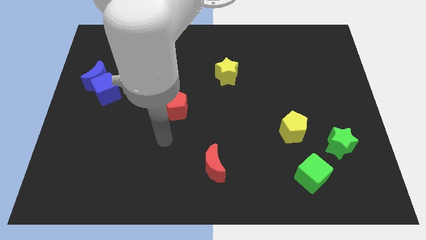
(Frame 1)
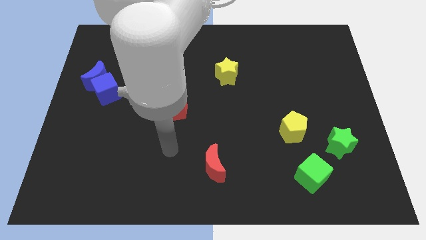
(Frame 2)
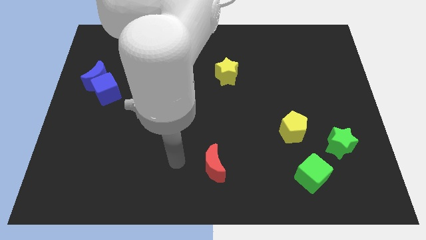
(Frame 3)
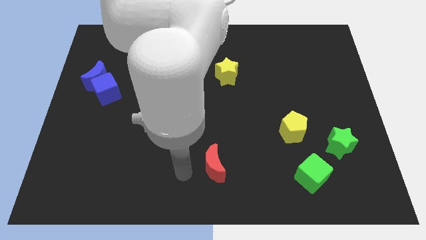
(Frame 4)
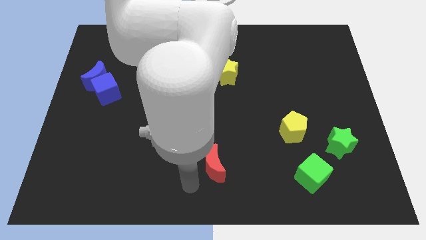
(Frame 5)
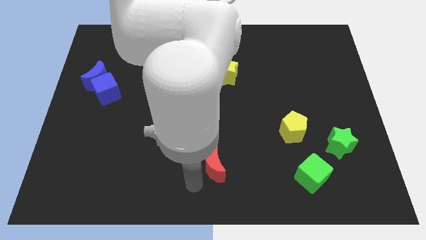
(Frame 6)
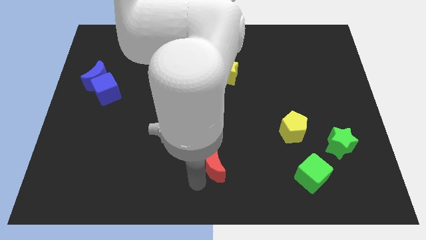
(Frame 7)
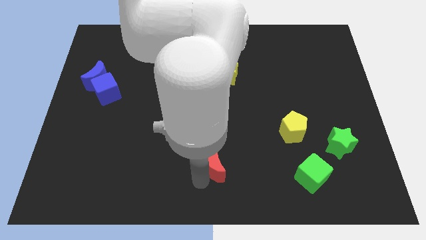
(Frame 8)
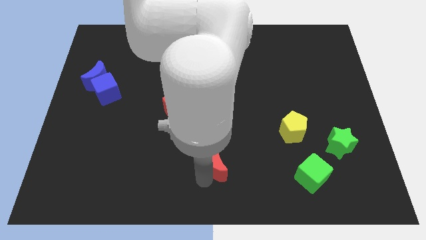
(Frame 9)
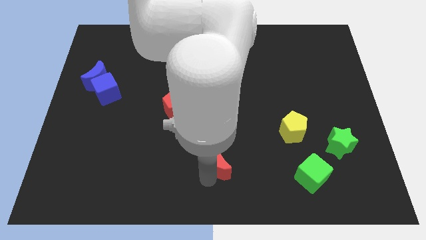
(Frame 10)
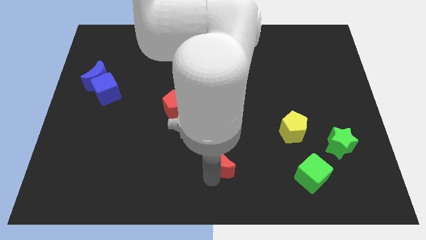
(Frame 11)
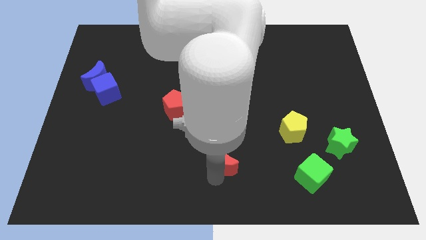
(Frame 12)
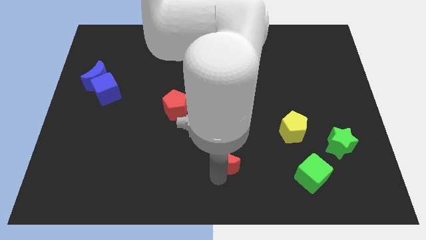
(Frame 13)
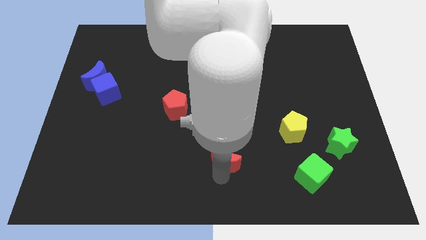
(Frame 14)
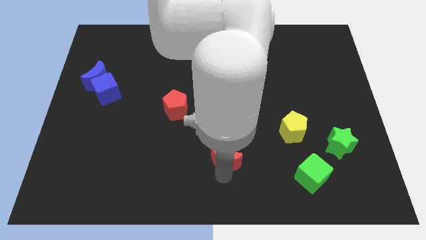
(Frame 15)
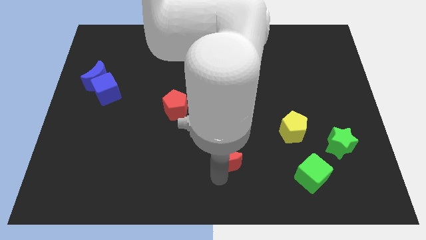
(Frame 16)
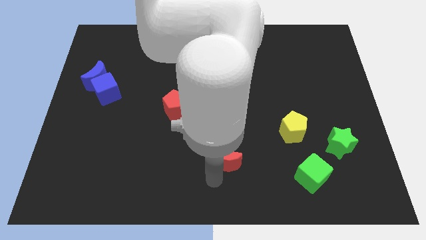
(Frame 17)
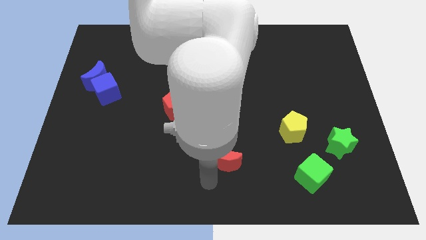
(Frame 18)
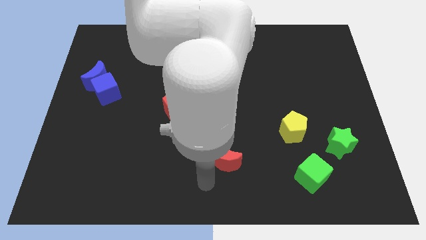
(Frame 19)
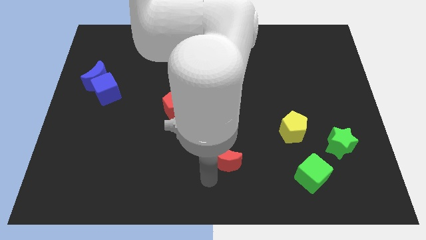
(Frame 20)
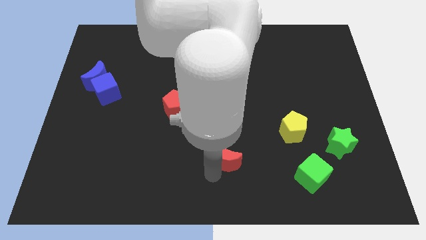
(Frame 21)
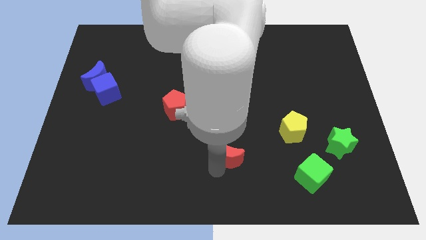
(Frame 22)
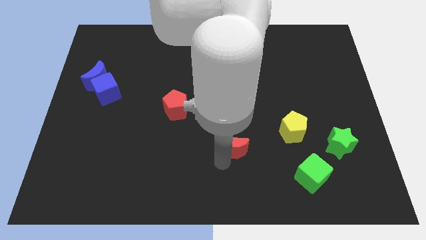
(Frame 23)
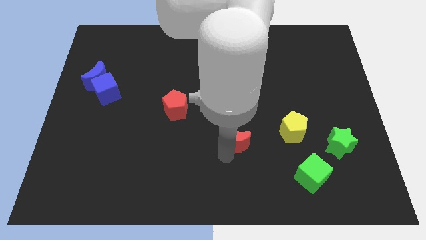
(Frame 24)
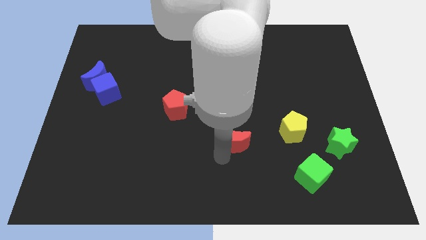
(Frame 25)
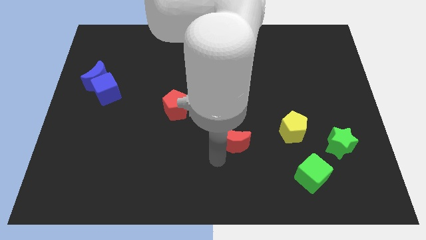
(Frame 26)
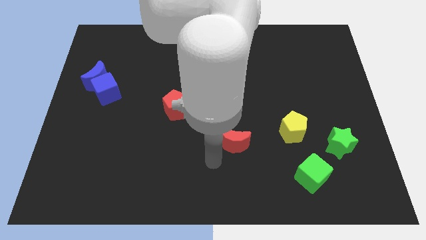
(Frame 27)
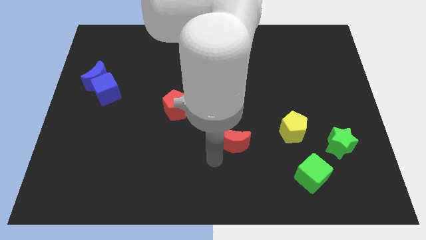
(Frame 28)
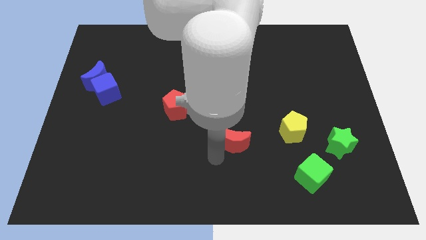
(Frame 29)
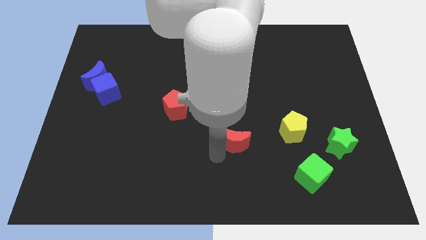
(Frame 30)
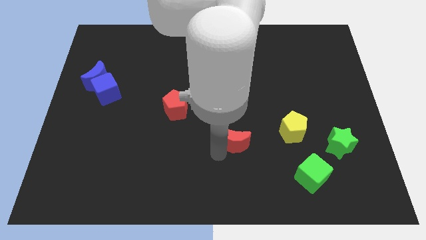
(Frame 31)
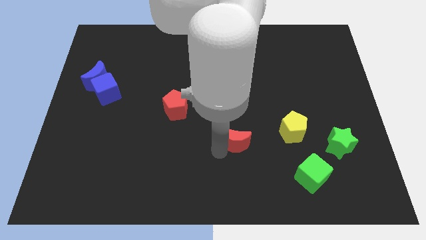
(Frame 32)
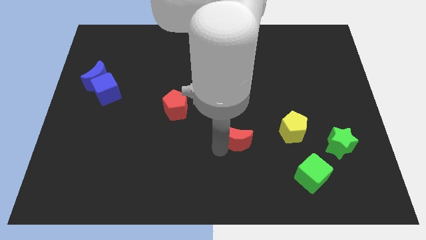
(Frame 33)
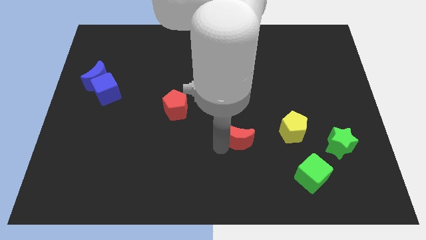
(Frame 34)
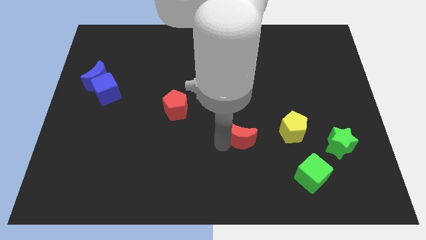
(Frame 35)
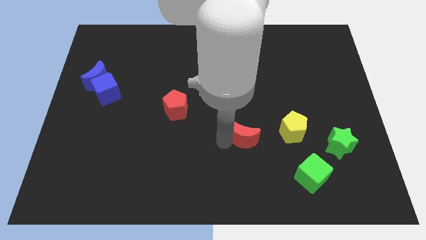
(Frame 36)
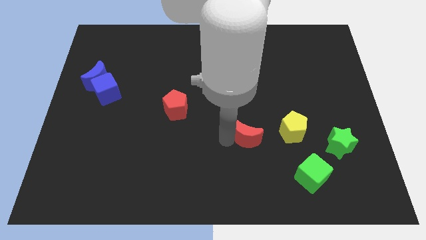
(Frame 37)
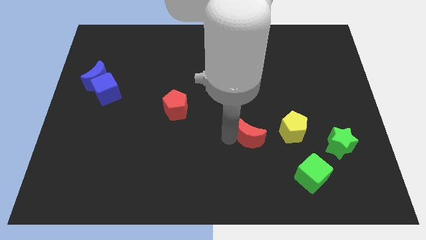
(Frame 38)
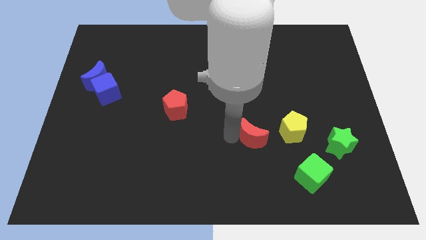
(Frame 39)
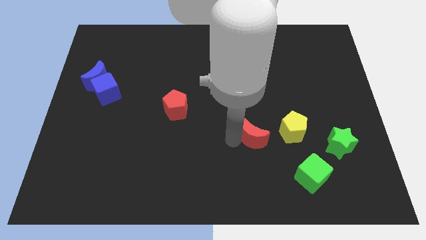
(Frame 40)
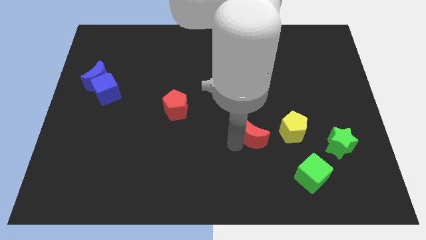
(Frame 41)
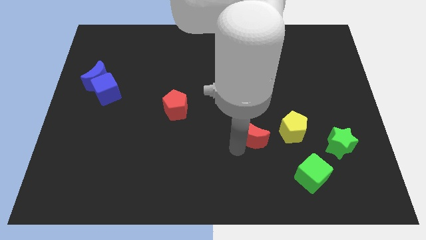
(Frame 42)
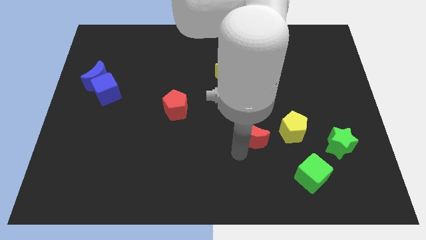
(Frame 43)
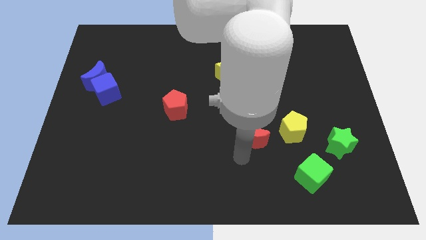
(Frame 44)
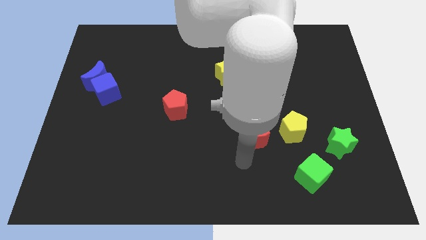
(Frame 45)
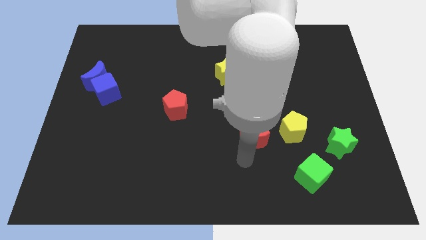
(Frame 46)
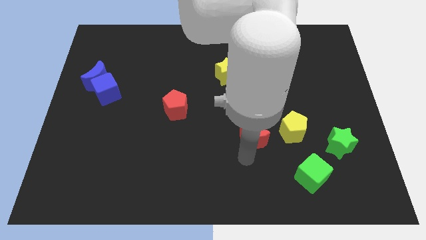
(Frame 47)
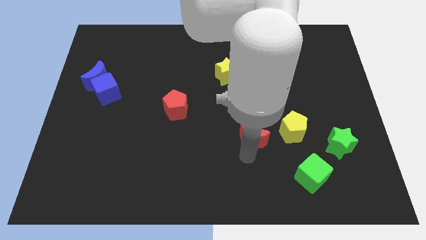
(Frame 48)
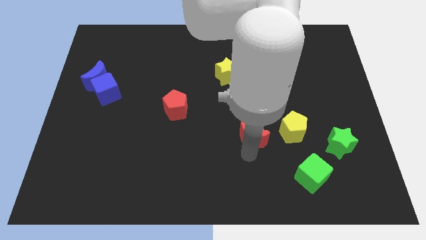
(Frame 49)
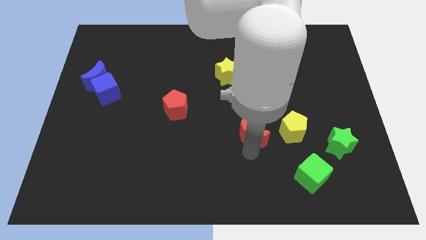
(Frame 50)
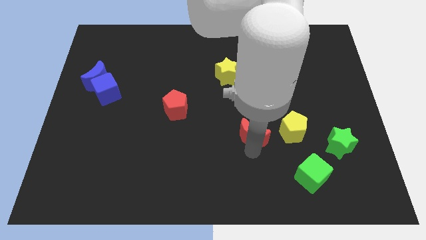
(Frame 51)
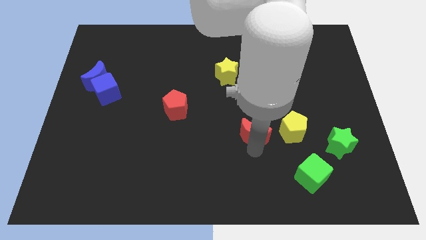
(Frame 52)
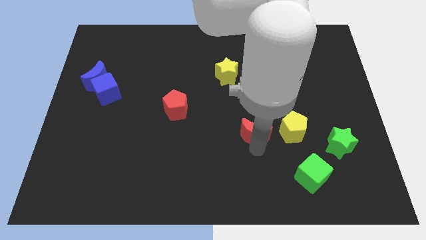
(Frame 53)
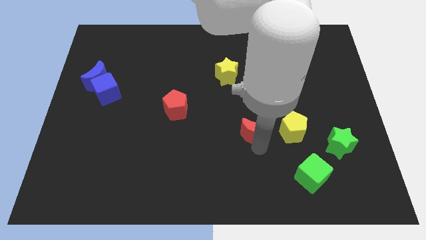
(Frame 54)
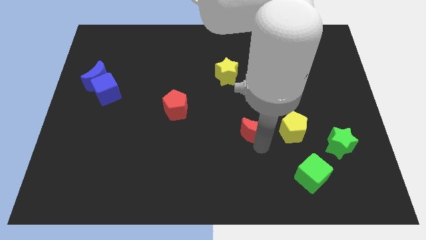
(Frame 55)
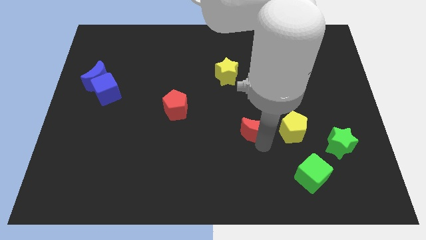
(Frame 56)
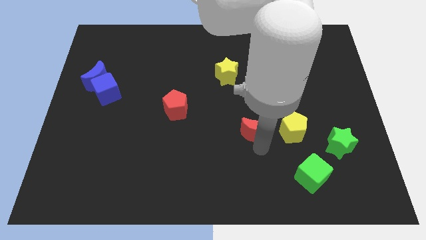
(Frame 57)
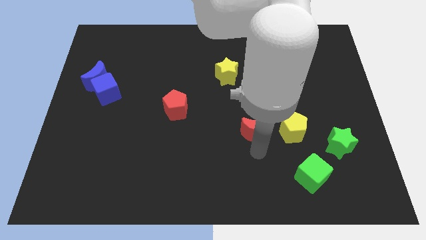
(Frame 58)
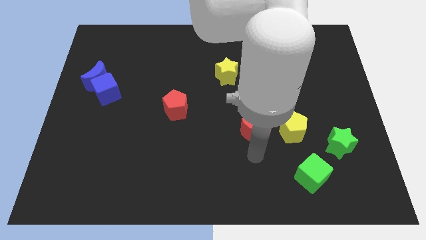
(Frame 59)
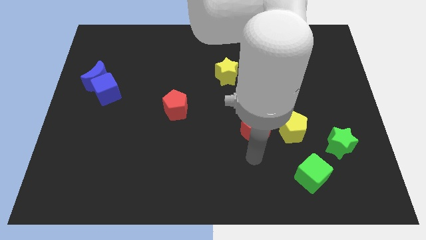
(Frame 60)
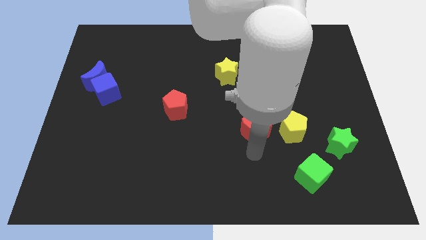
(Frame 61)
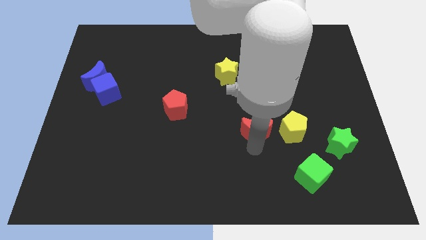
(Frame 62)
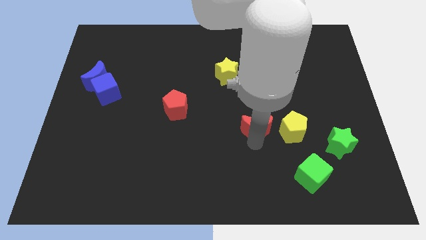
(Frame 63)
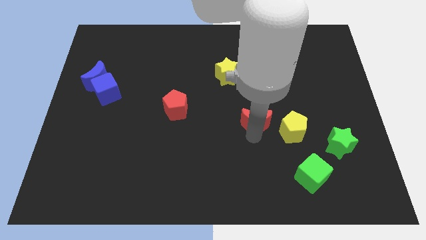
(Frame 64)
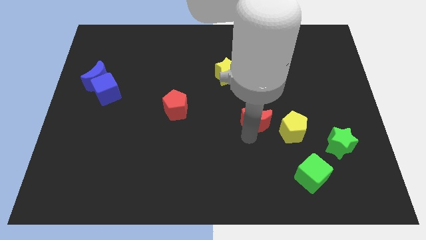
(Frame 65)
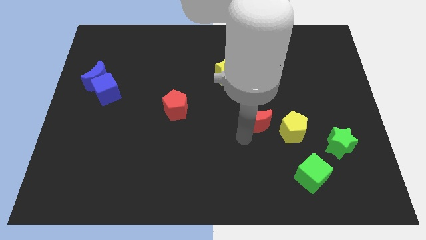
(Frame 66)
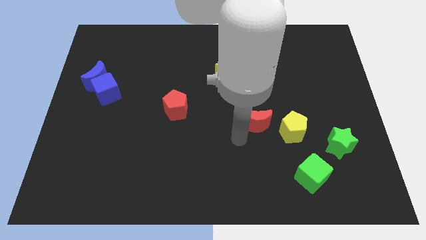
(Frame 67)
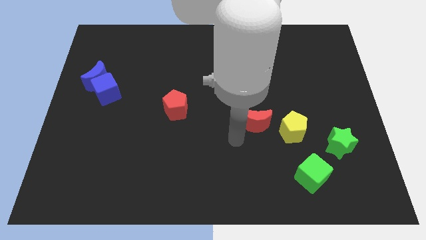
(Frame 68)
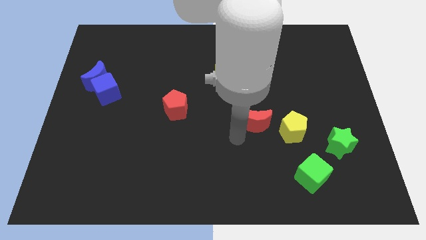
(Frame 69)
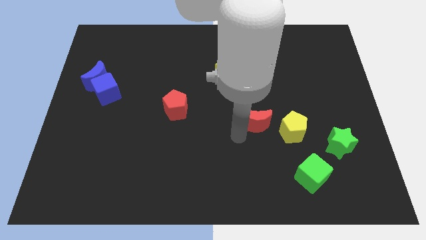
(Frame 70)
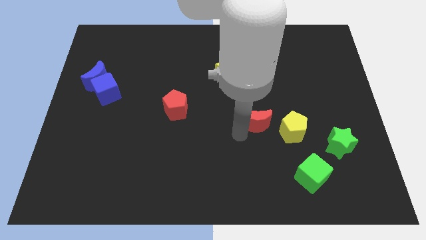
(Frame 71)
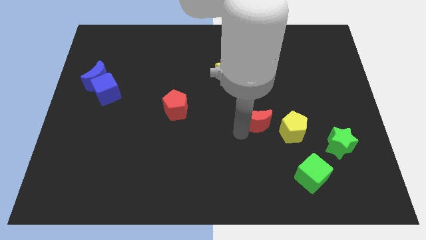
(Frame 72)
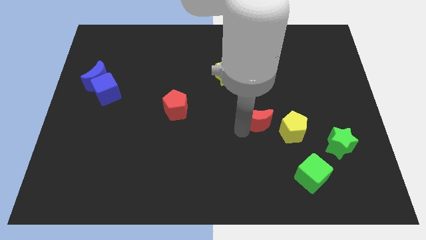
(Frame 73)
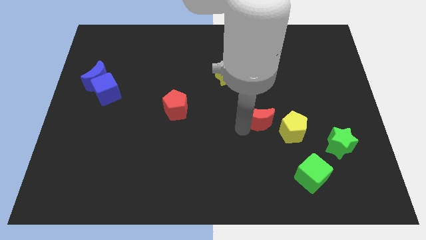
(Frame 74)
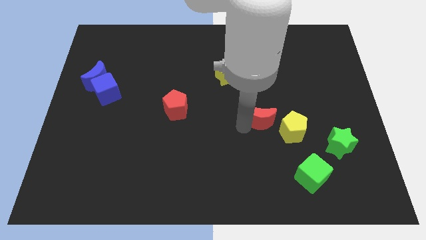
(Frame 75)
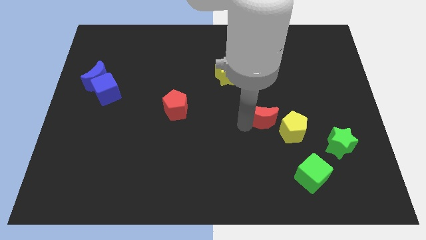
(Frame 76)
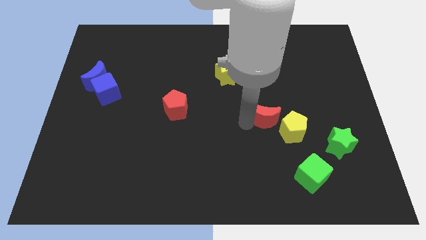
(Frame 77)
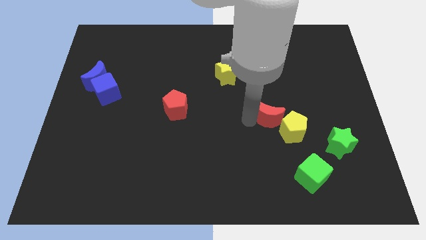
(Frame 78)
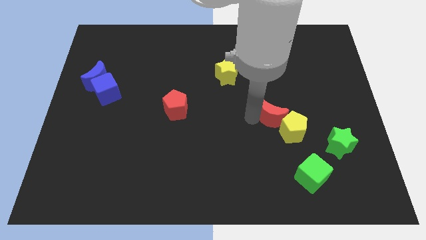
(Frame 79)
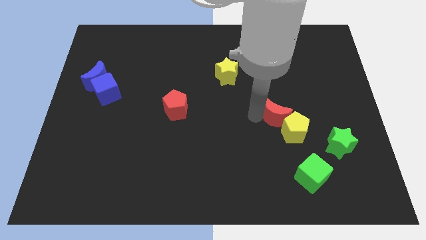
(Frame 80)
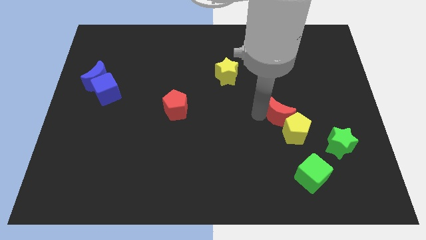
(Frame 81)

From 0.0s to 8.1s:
push the red moon upwards and right
